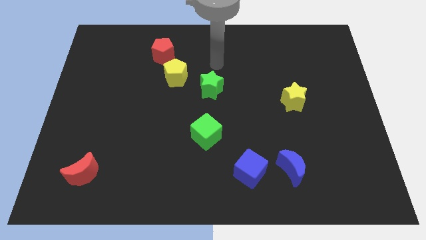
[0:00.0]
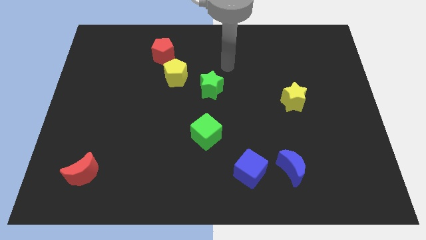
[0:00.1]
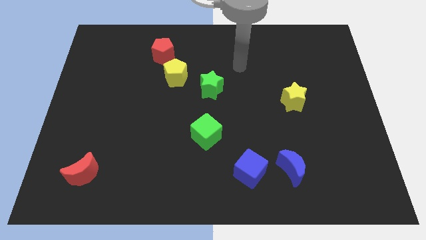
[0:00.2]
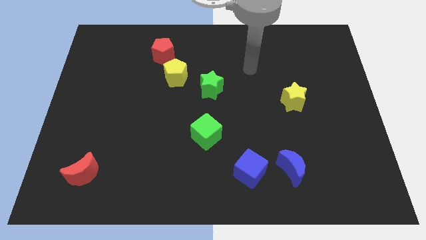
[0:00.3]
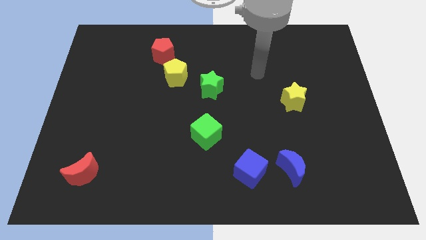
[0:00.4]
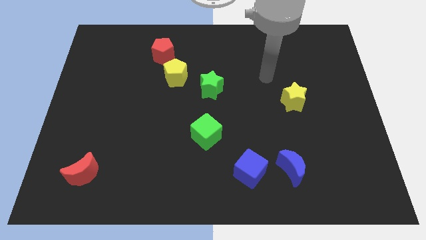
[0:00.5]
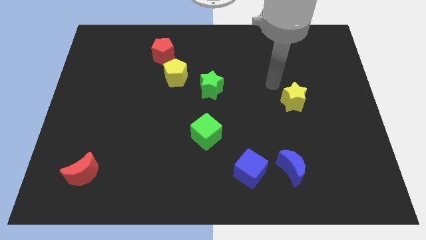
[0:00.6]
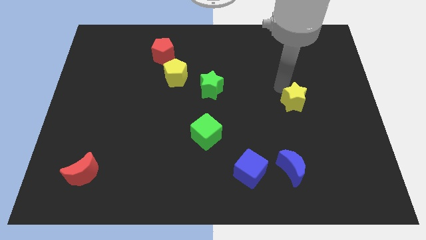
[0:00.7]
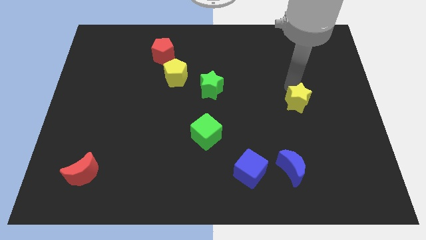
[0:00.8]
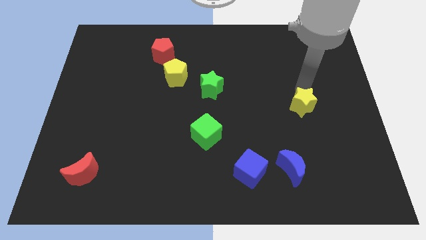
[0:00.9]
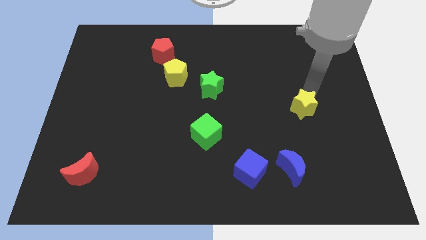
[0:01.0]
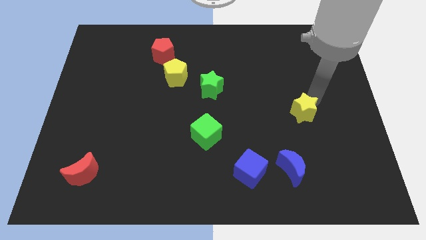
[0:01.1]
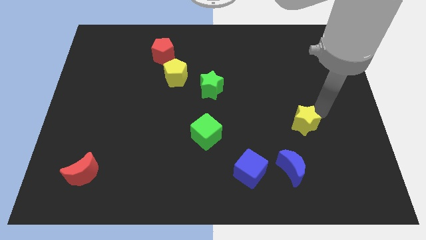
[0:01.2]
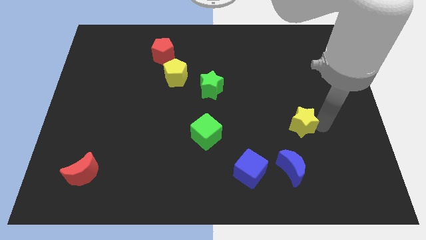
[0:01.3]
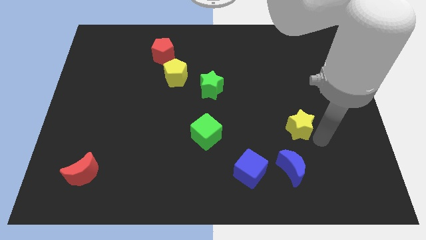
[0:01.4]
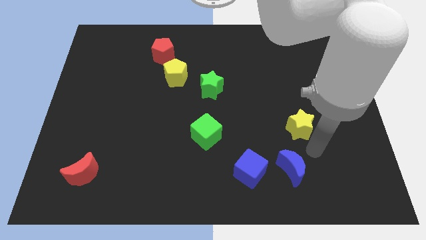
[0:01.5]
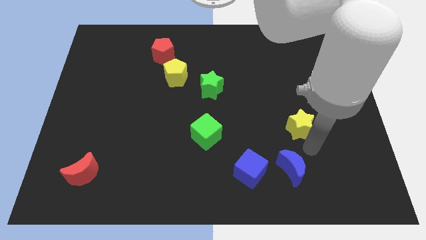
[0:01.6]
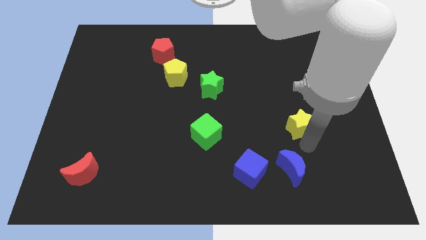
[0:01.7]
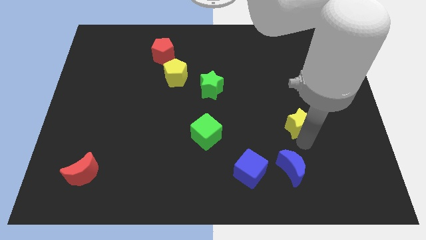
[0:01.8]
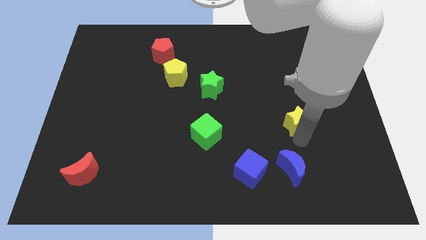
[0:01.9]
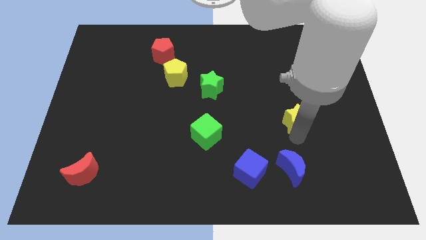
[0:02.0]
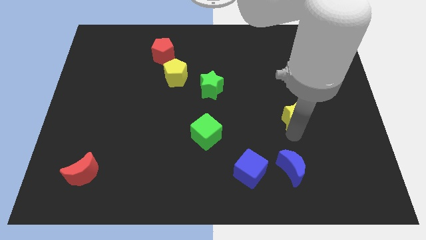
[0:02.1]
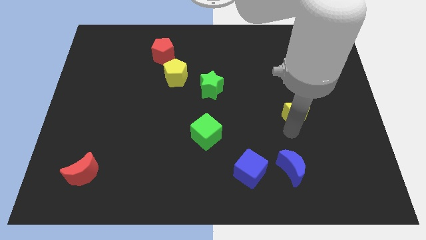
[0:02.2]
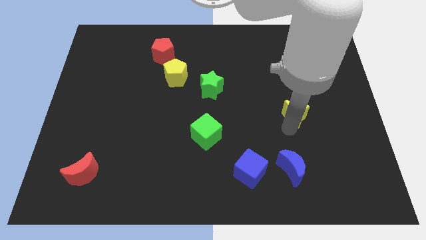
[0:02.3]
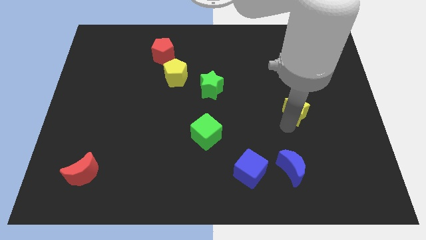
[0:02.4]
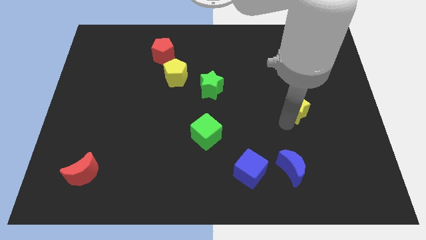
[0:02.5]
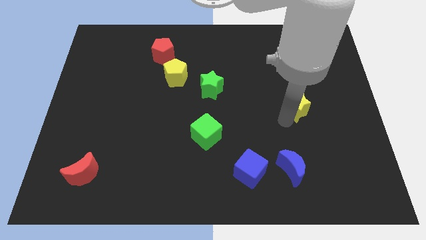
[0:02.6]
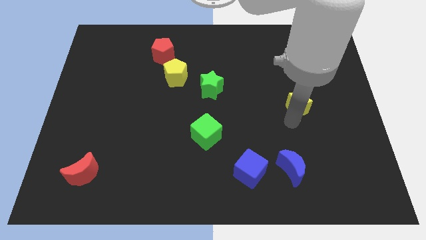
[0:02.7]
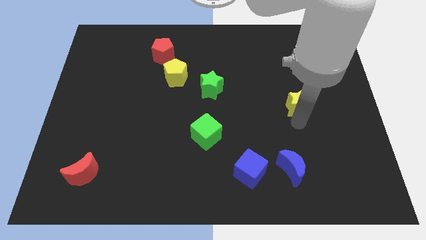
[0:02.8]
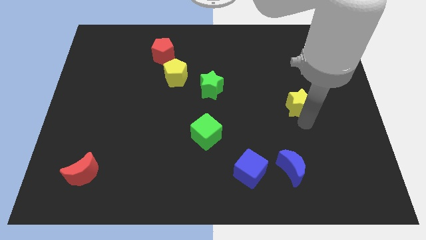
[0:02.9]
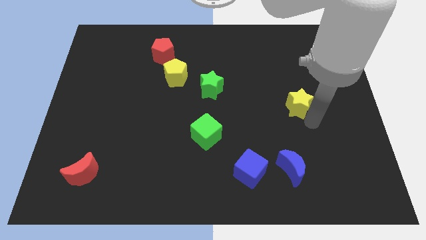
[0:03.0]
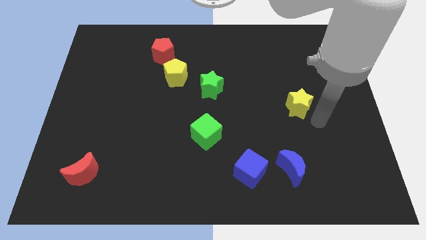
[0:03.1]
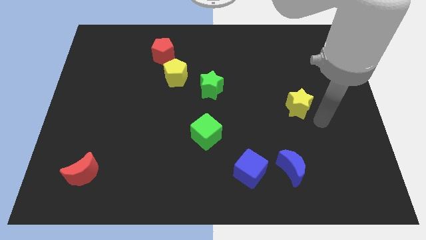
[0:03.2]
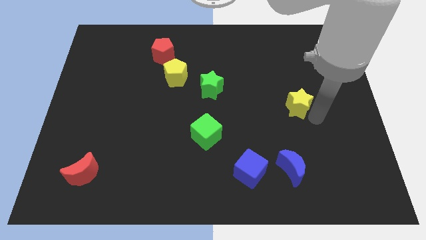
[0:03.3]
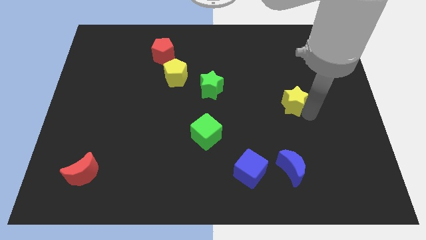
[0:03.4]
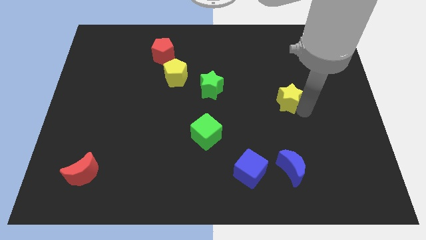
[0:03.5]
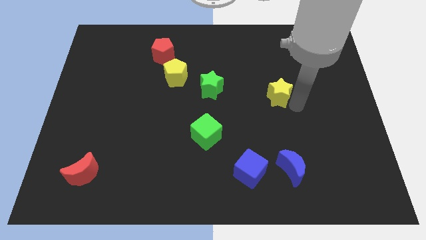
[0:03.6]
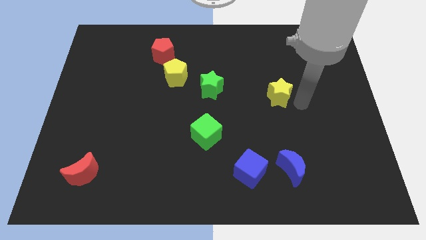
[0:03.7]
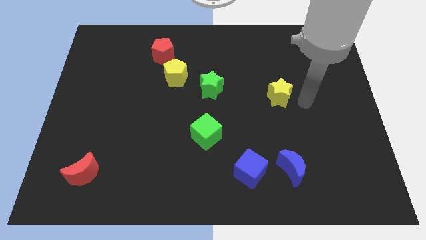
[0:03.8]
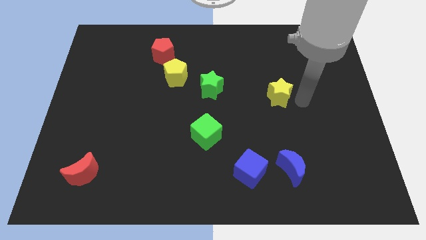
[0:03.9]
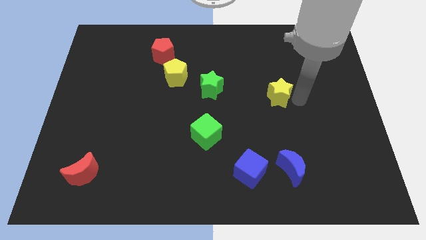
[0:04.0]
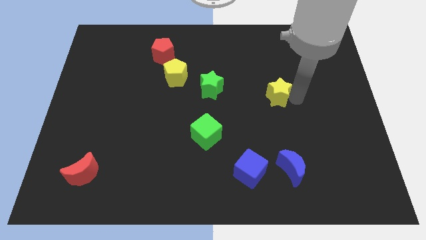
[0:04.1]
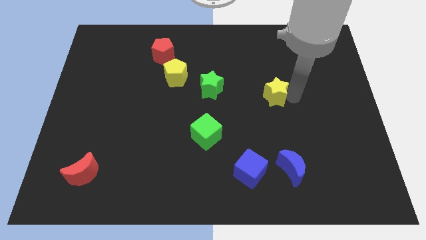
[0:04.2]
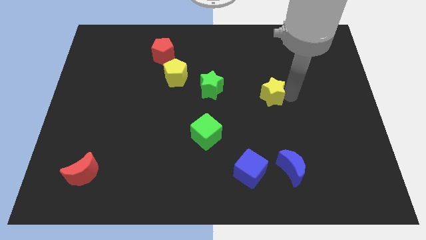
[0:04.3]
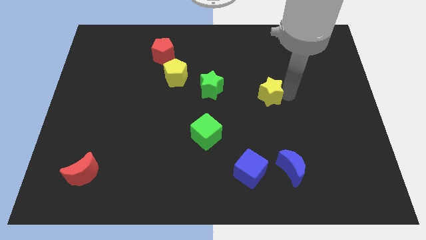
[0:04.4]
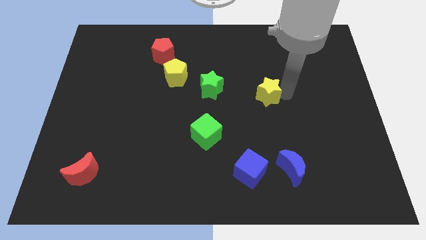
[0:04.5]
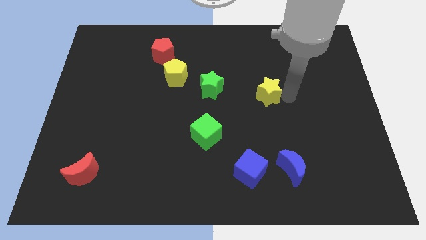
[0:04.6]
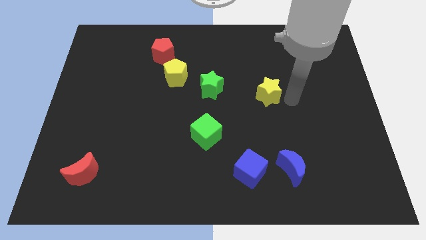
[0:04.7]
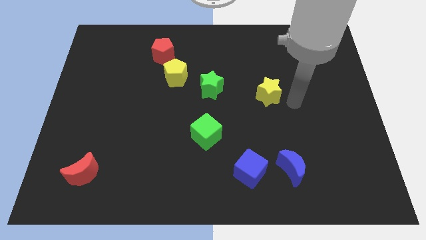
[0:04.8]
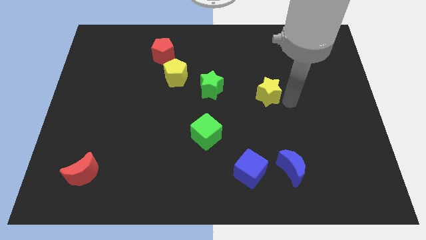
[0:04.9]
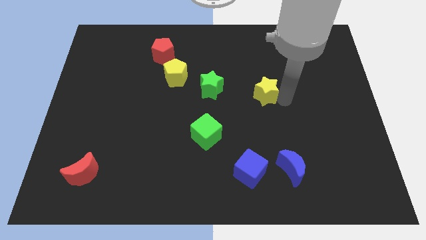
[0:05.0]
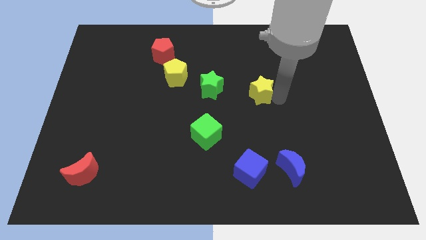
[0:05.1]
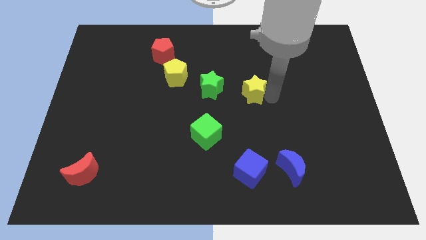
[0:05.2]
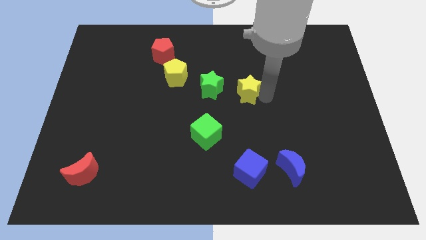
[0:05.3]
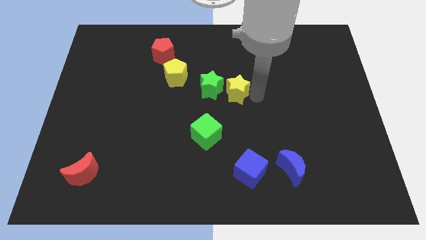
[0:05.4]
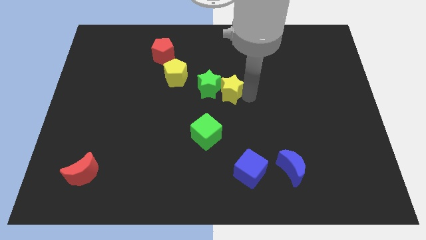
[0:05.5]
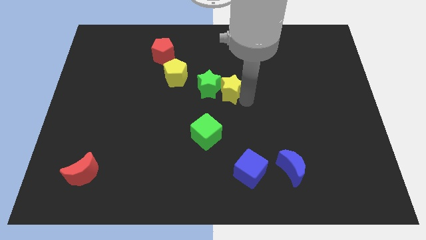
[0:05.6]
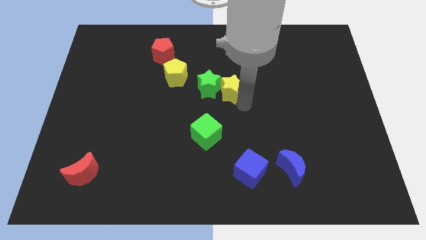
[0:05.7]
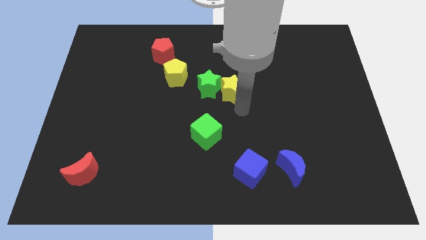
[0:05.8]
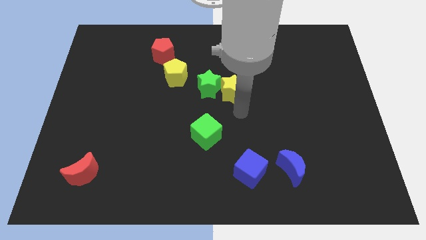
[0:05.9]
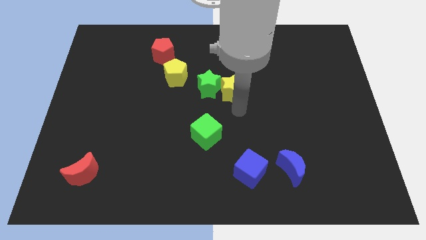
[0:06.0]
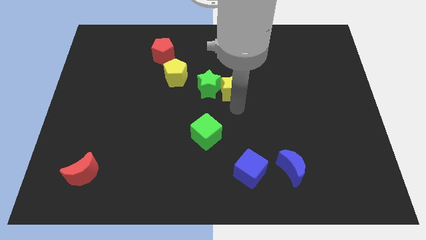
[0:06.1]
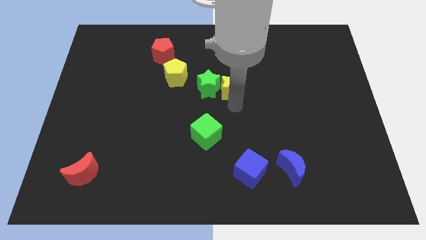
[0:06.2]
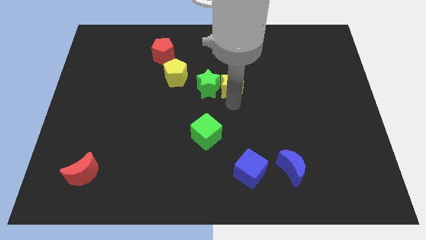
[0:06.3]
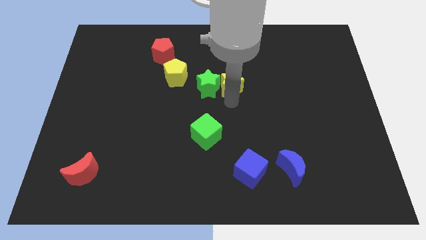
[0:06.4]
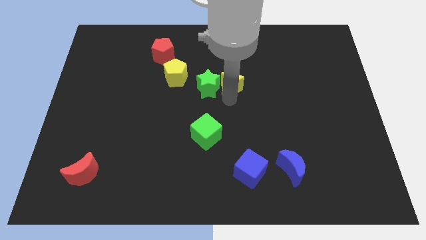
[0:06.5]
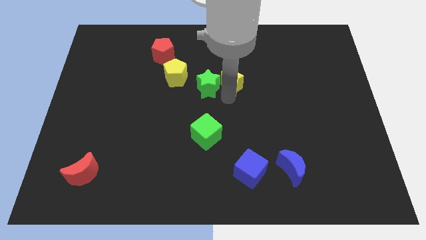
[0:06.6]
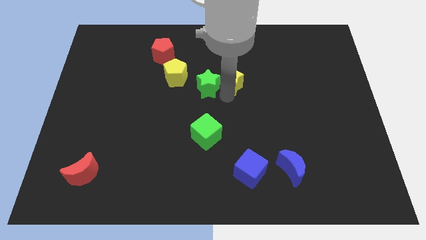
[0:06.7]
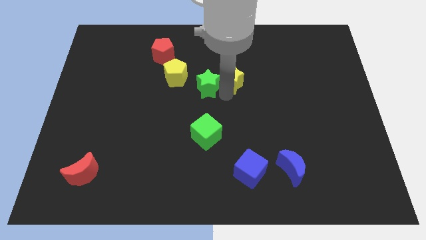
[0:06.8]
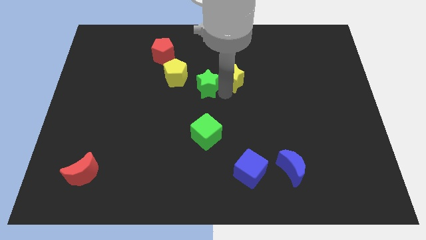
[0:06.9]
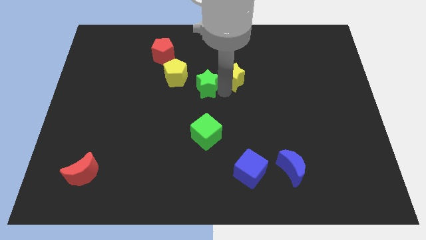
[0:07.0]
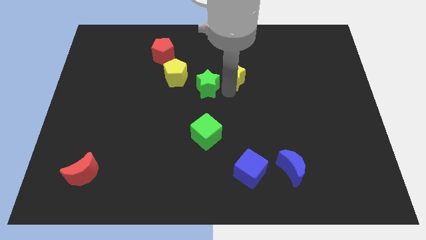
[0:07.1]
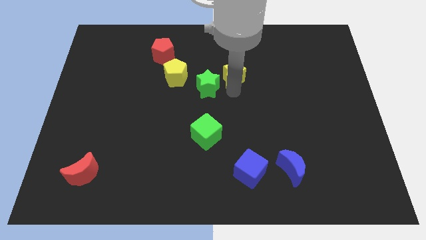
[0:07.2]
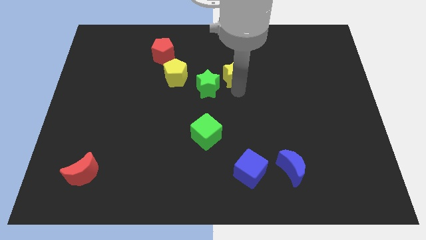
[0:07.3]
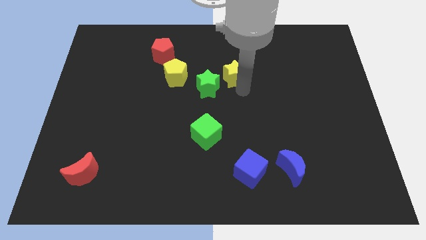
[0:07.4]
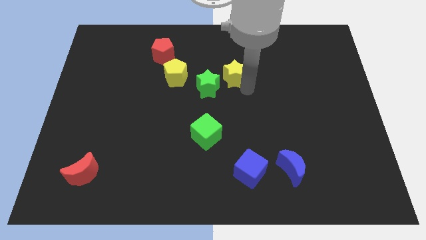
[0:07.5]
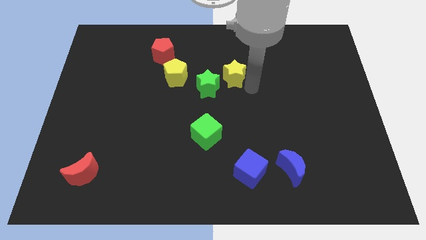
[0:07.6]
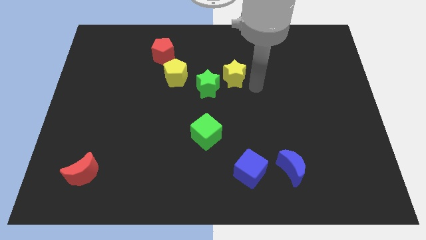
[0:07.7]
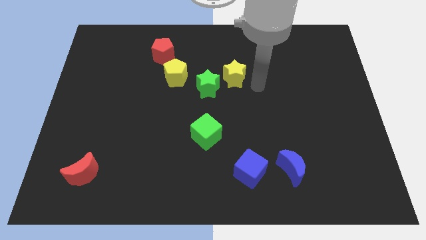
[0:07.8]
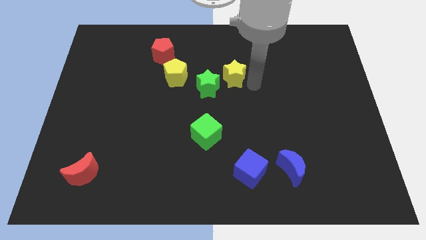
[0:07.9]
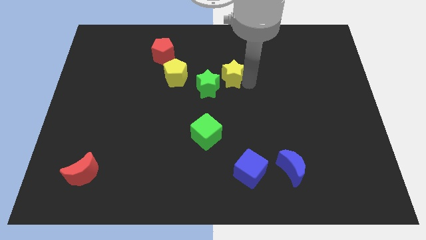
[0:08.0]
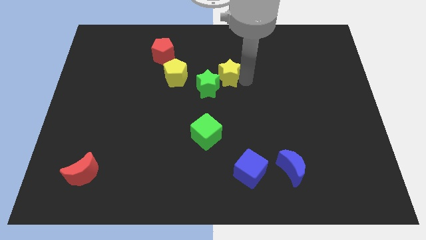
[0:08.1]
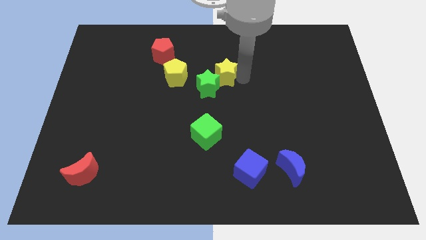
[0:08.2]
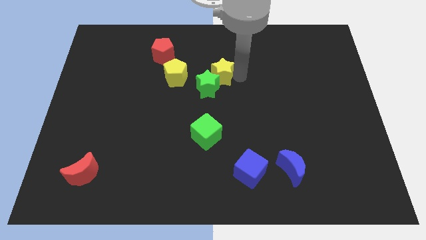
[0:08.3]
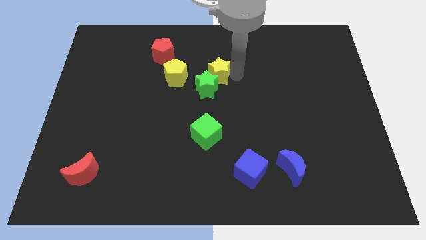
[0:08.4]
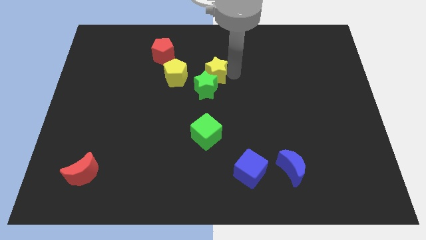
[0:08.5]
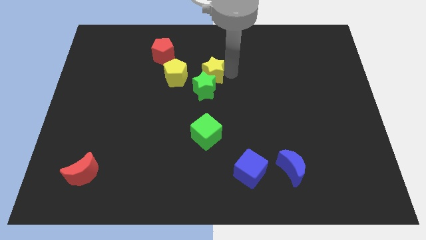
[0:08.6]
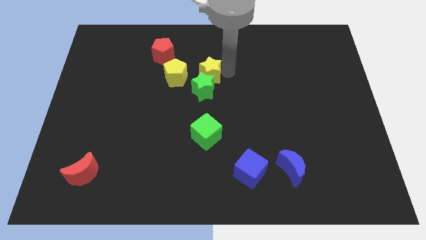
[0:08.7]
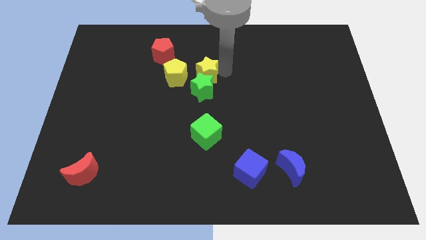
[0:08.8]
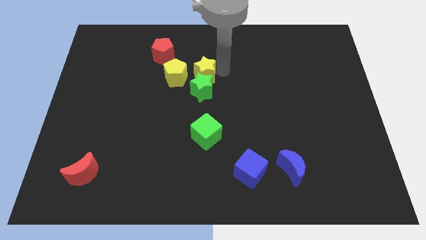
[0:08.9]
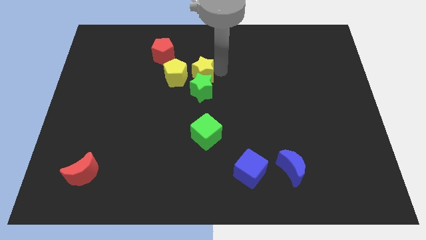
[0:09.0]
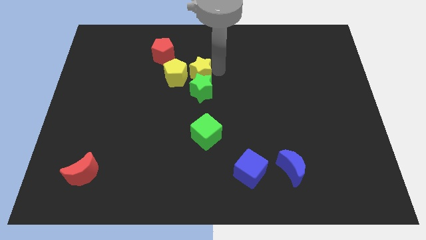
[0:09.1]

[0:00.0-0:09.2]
slide the yellow star next to the yellow pentagon
